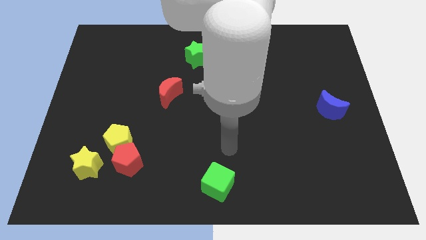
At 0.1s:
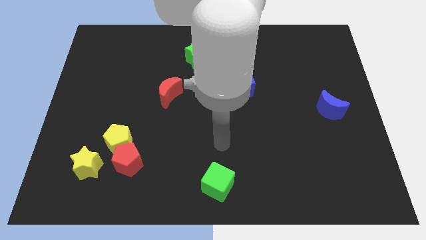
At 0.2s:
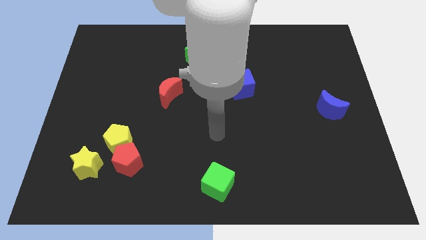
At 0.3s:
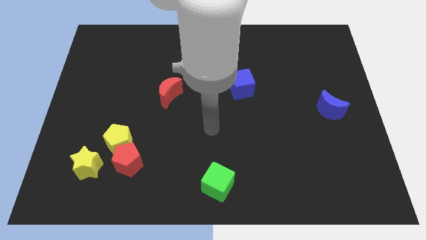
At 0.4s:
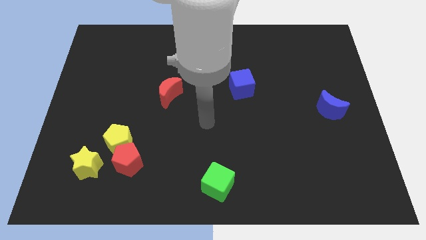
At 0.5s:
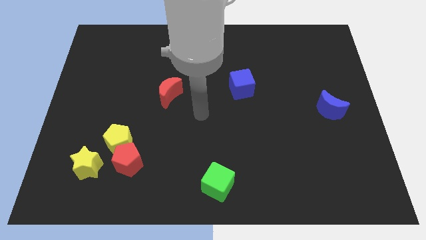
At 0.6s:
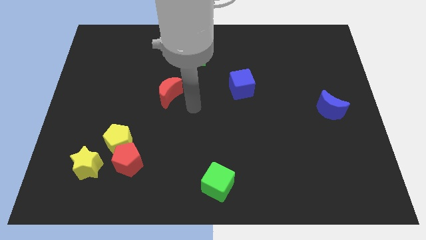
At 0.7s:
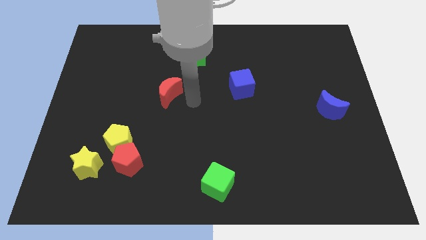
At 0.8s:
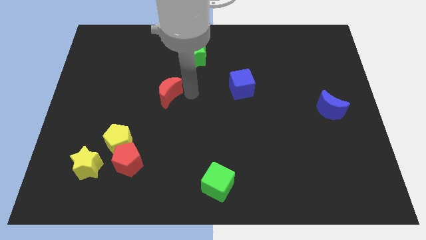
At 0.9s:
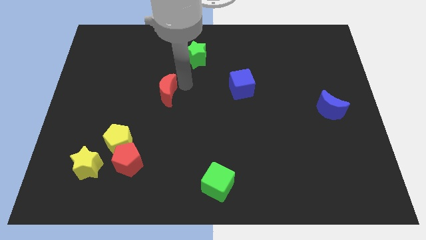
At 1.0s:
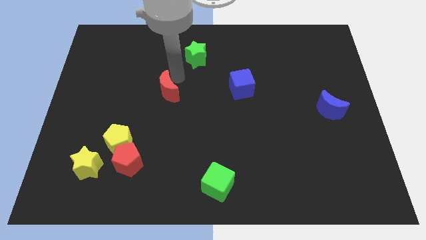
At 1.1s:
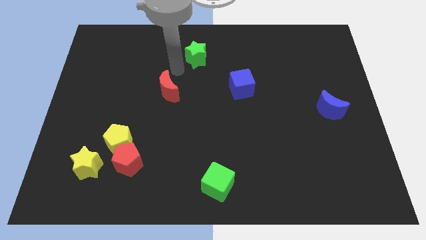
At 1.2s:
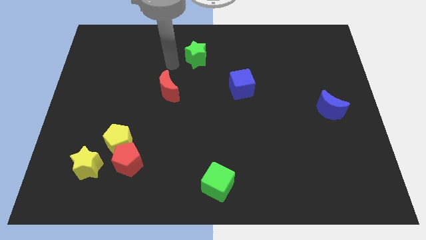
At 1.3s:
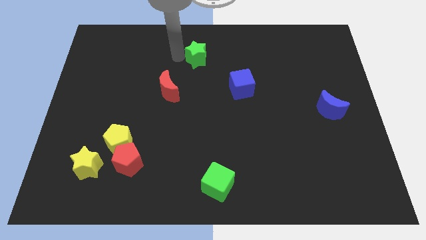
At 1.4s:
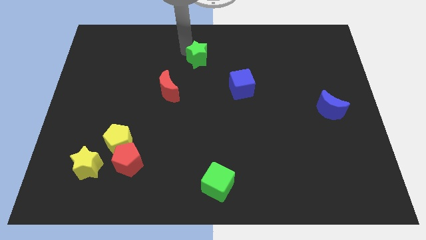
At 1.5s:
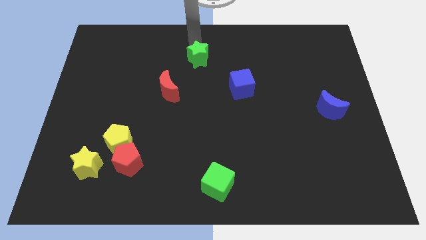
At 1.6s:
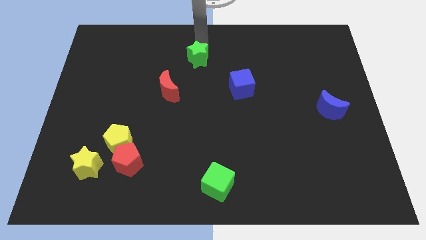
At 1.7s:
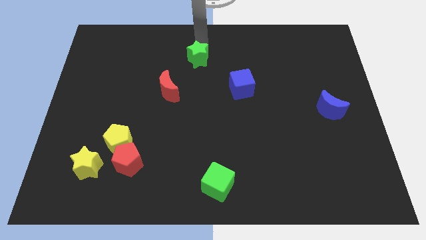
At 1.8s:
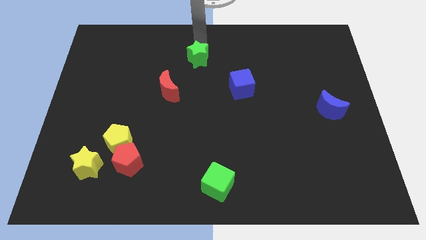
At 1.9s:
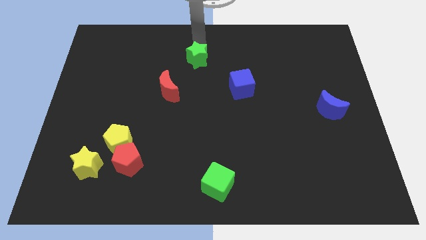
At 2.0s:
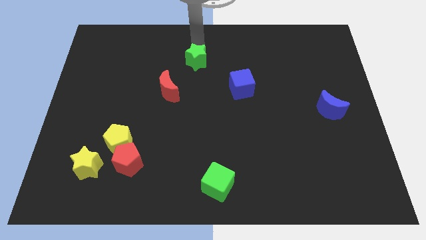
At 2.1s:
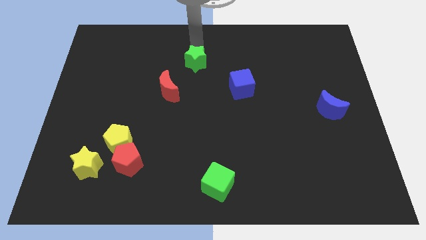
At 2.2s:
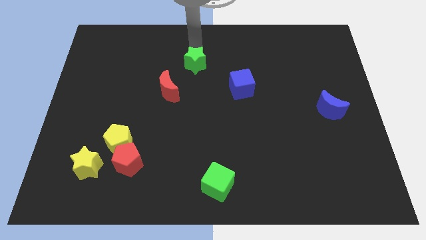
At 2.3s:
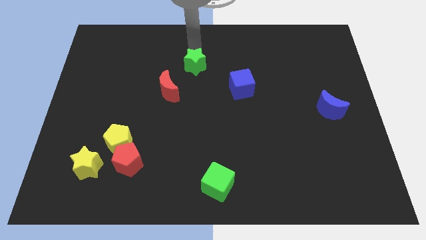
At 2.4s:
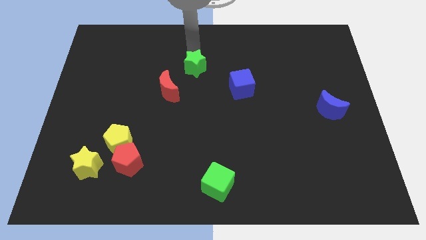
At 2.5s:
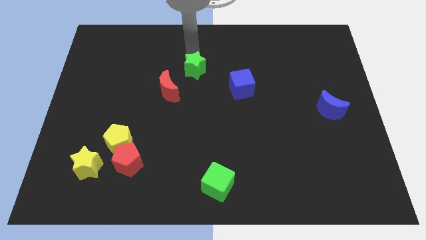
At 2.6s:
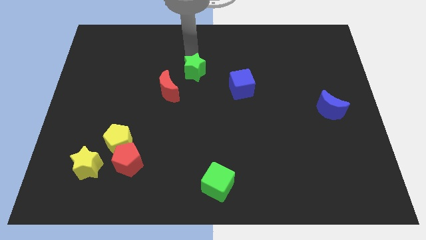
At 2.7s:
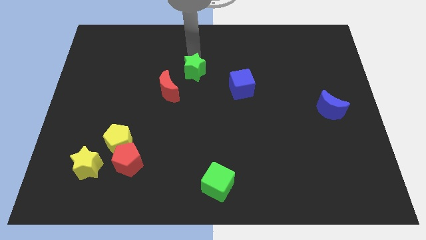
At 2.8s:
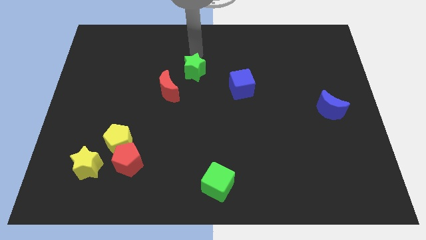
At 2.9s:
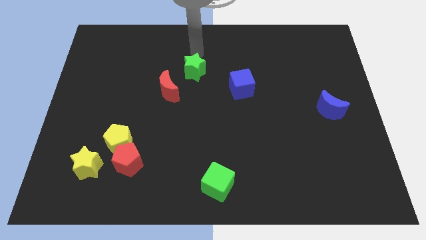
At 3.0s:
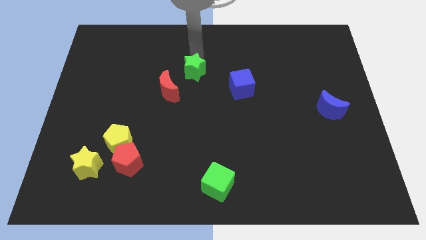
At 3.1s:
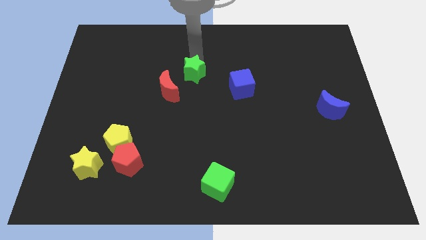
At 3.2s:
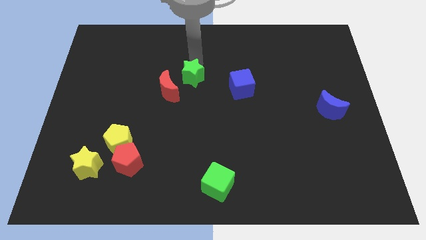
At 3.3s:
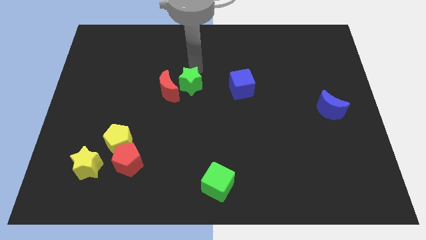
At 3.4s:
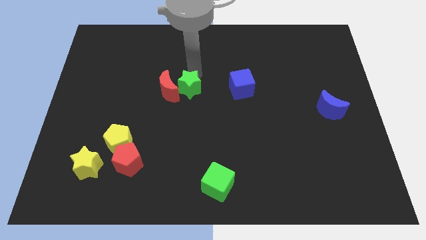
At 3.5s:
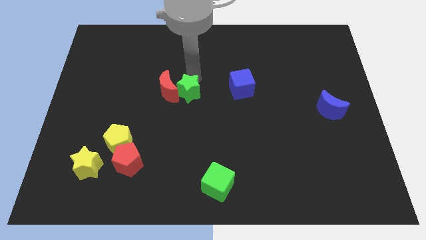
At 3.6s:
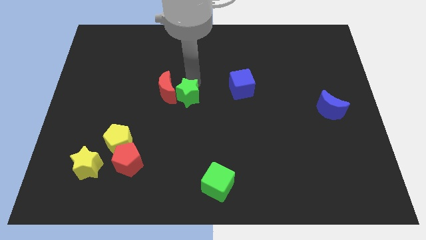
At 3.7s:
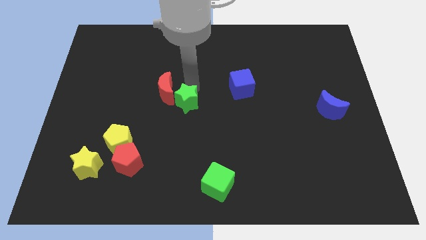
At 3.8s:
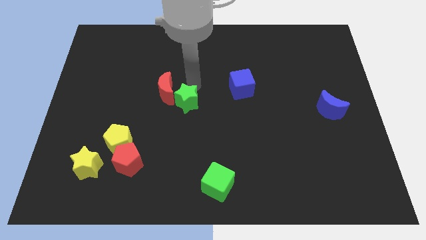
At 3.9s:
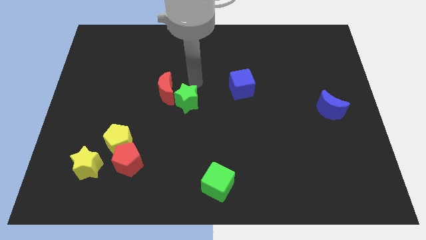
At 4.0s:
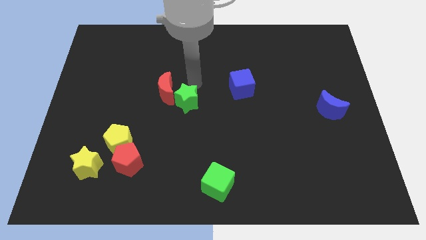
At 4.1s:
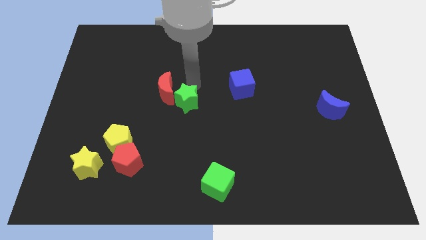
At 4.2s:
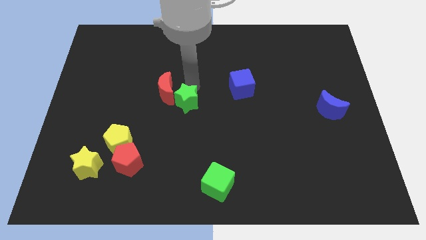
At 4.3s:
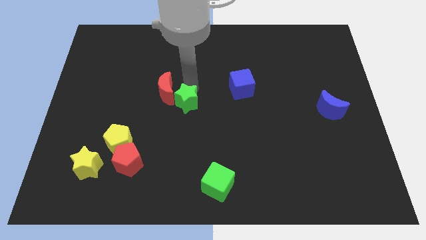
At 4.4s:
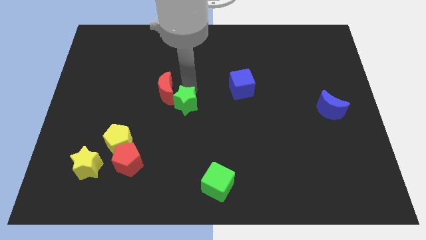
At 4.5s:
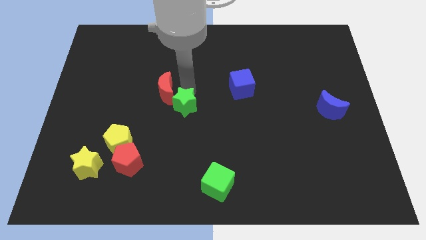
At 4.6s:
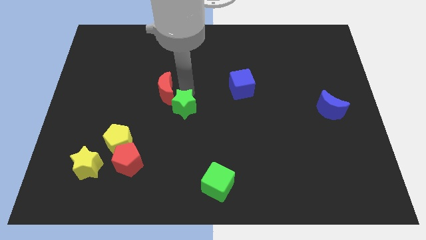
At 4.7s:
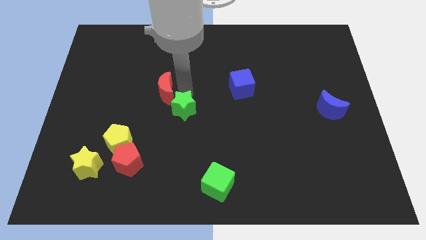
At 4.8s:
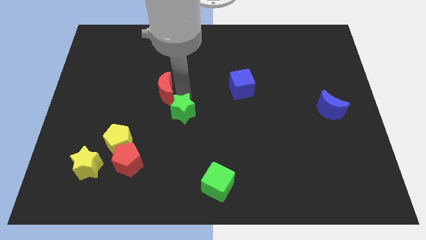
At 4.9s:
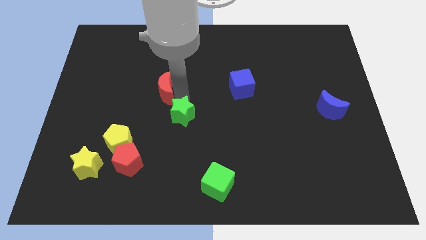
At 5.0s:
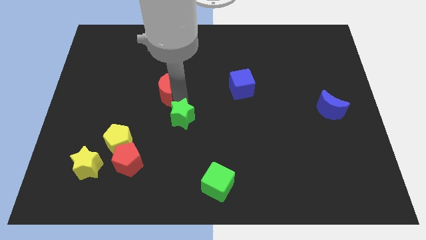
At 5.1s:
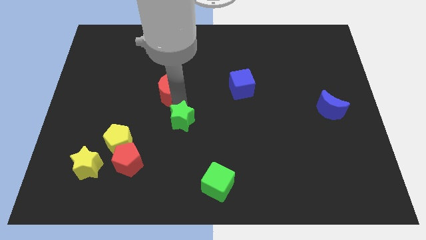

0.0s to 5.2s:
push the green star down

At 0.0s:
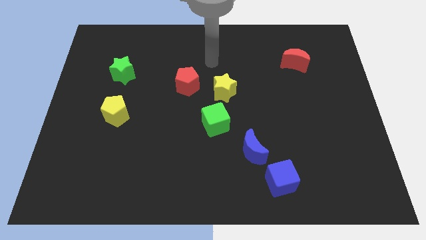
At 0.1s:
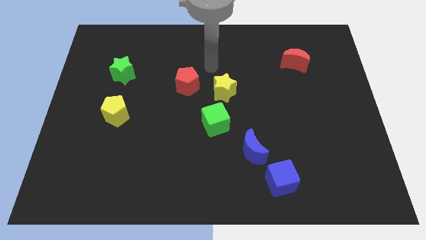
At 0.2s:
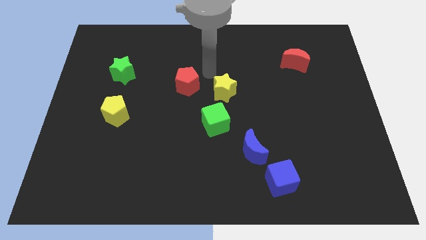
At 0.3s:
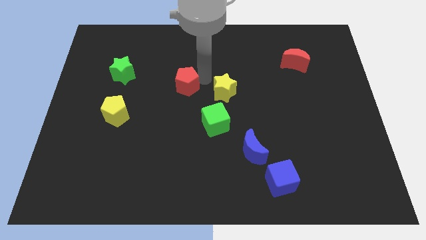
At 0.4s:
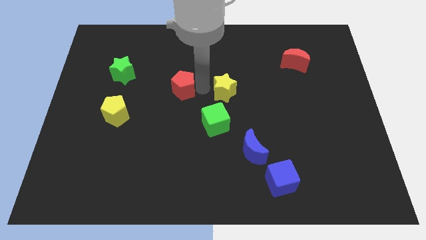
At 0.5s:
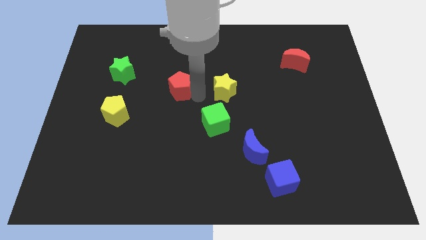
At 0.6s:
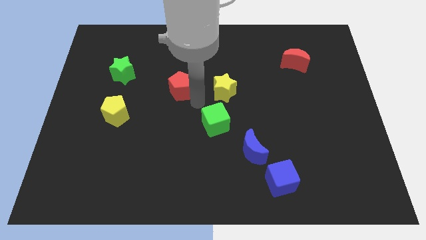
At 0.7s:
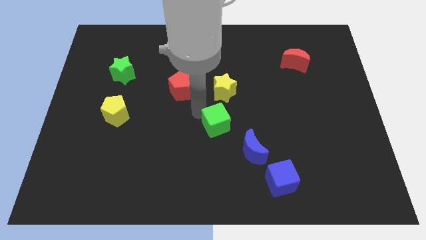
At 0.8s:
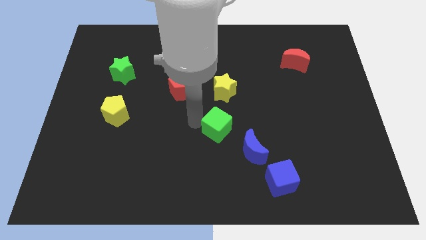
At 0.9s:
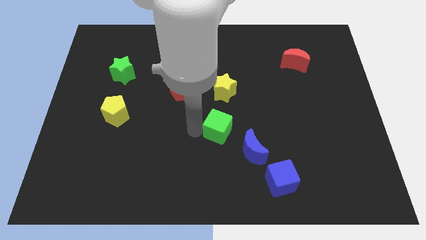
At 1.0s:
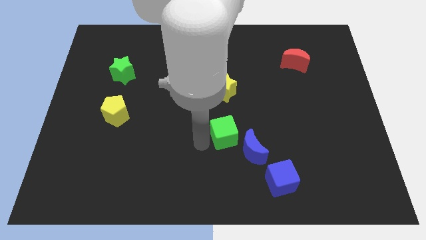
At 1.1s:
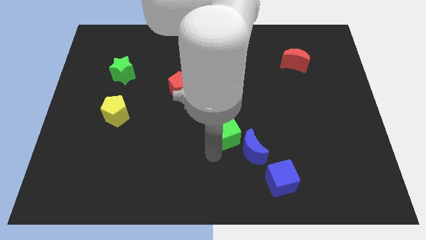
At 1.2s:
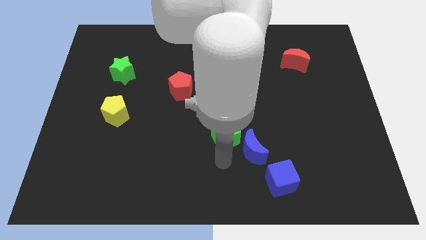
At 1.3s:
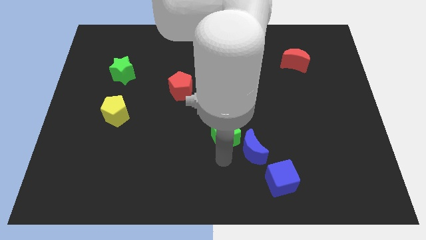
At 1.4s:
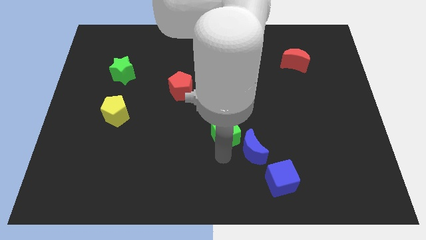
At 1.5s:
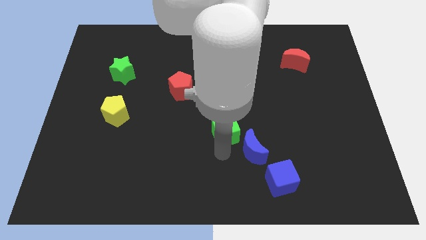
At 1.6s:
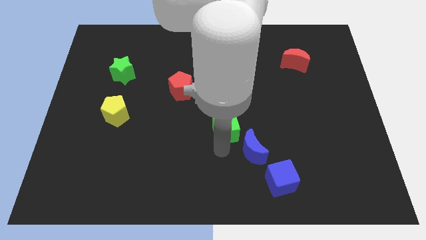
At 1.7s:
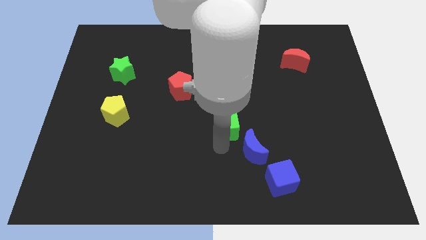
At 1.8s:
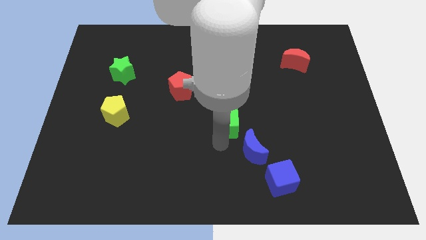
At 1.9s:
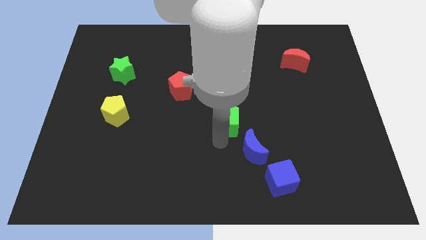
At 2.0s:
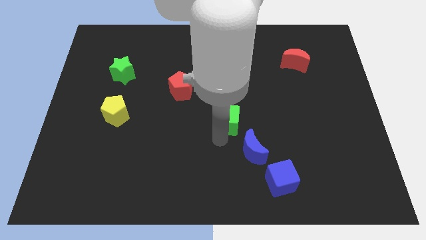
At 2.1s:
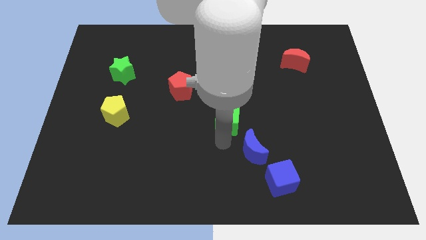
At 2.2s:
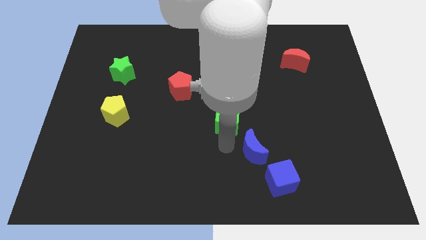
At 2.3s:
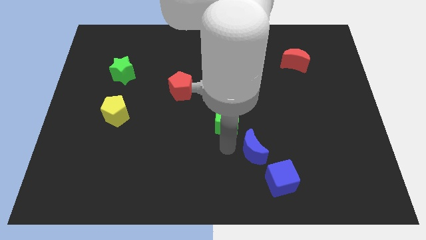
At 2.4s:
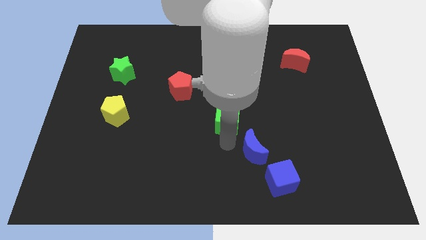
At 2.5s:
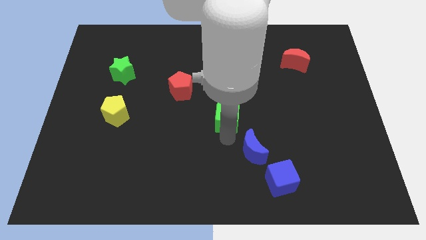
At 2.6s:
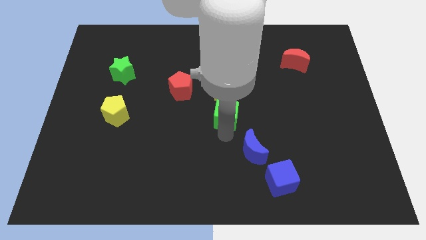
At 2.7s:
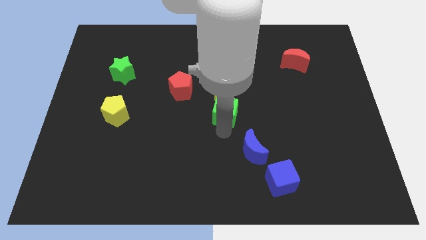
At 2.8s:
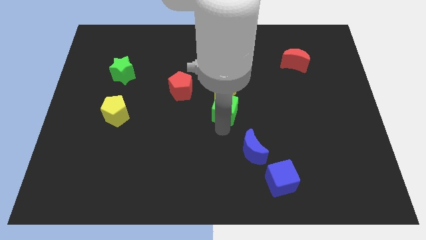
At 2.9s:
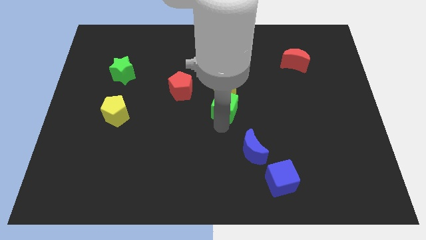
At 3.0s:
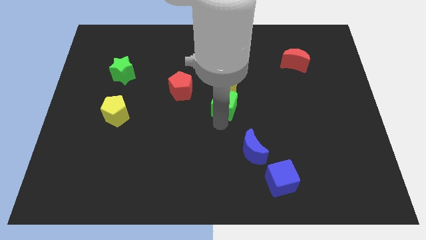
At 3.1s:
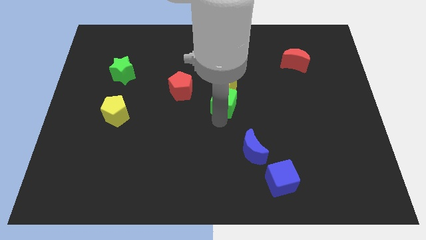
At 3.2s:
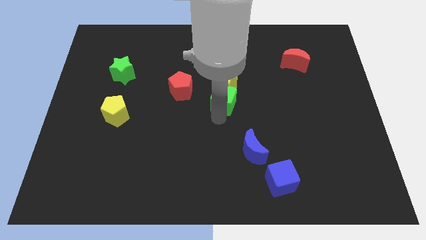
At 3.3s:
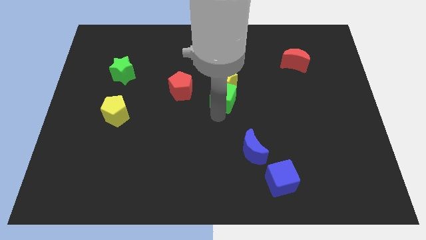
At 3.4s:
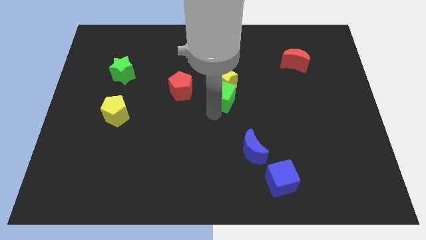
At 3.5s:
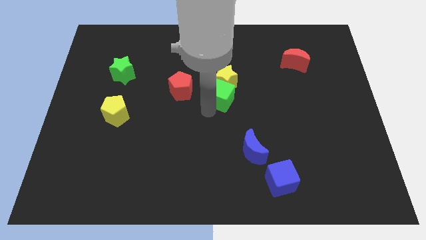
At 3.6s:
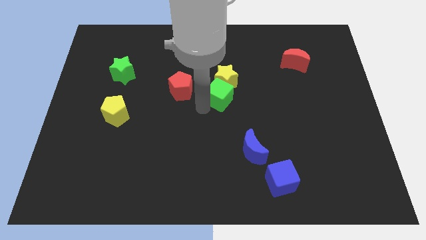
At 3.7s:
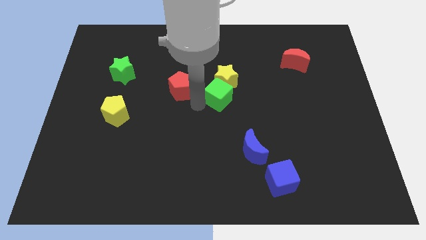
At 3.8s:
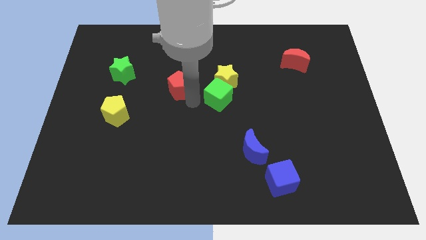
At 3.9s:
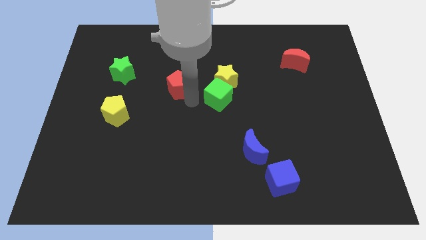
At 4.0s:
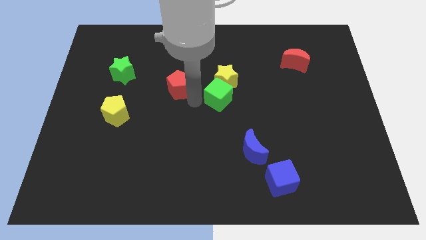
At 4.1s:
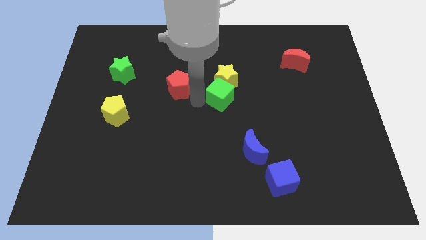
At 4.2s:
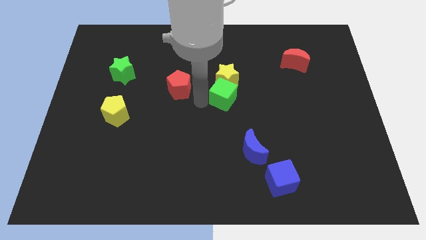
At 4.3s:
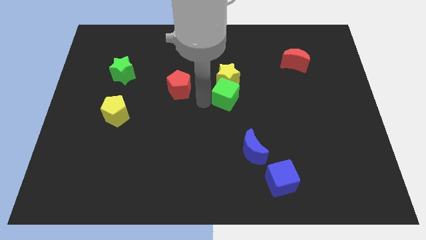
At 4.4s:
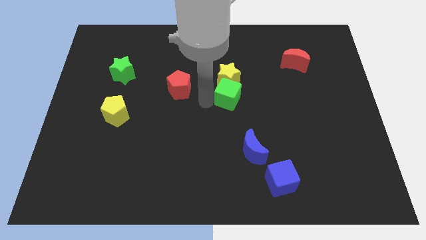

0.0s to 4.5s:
slightly slide the green cube diagonally up and right
